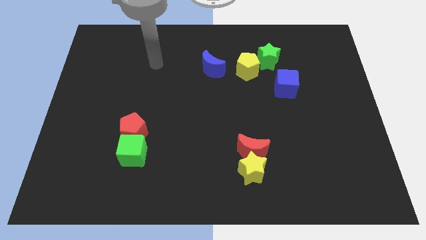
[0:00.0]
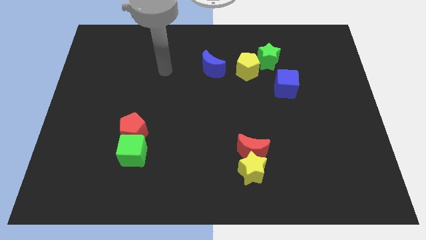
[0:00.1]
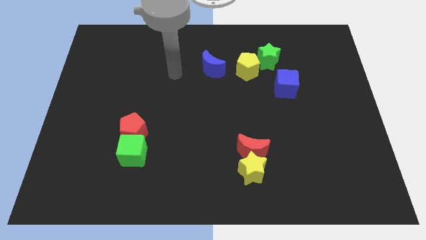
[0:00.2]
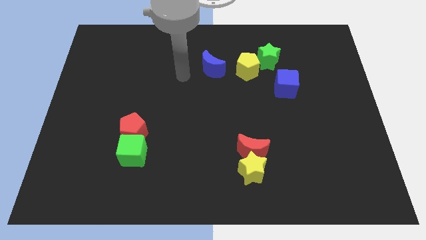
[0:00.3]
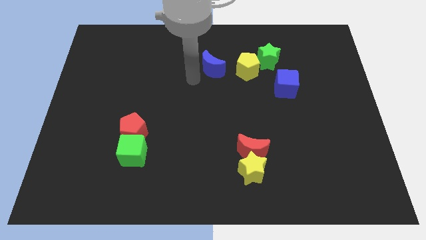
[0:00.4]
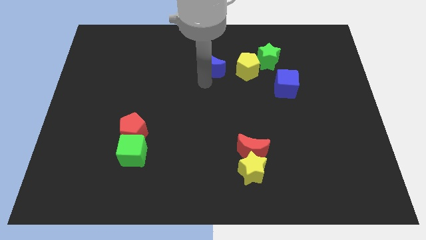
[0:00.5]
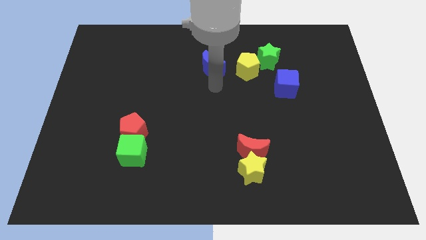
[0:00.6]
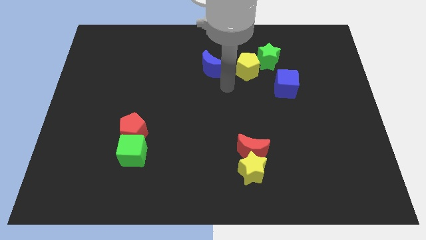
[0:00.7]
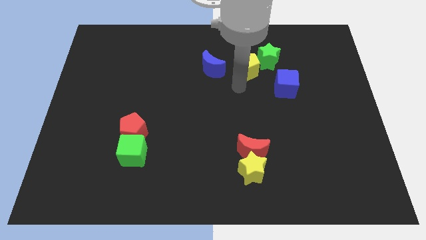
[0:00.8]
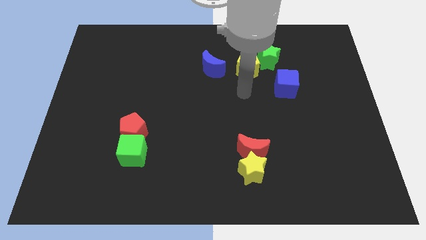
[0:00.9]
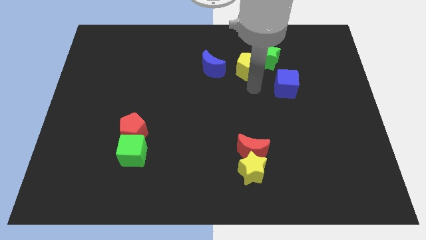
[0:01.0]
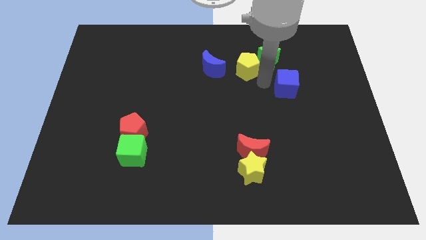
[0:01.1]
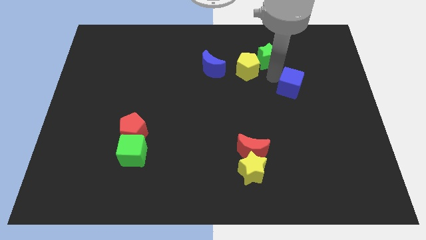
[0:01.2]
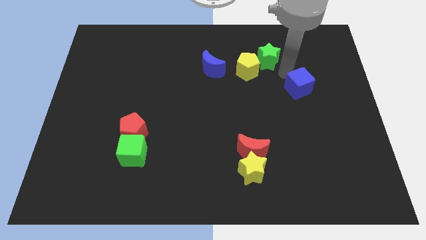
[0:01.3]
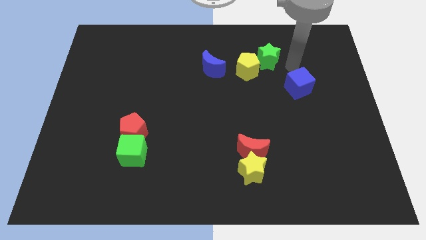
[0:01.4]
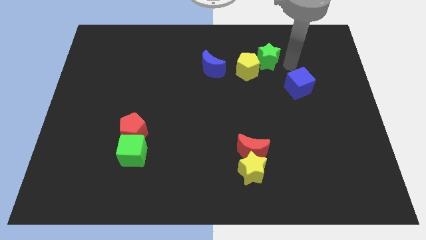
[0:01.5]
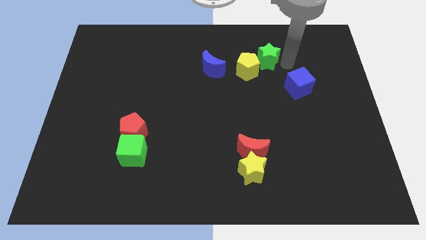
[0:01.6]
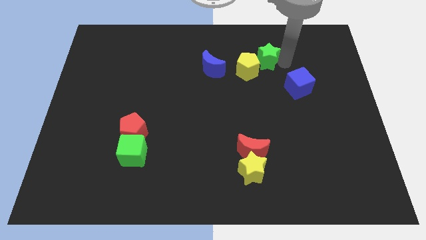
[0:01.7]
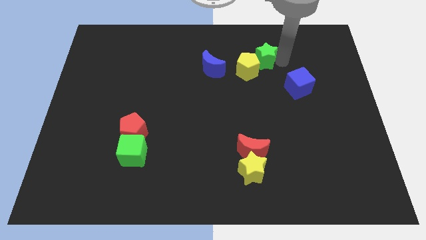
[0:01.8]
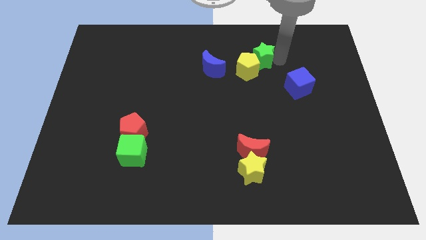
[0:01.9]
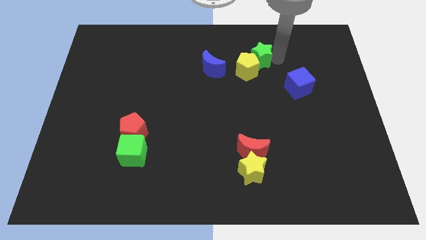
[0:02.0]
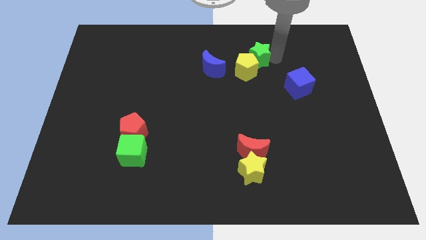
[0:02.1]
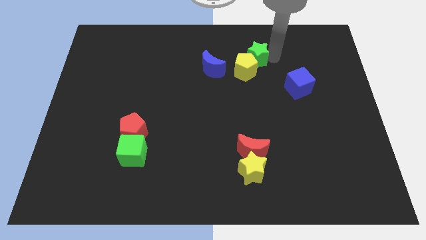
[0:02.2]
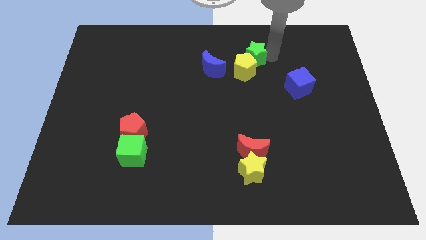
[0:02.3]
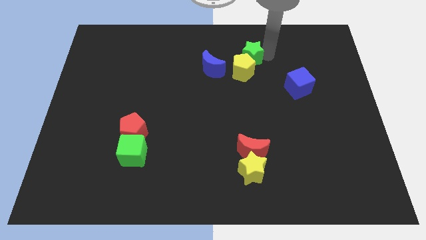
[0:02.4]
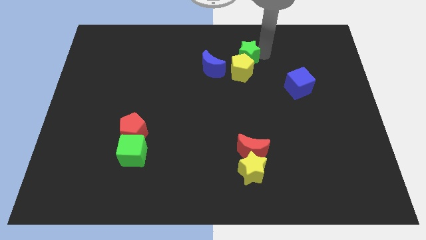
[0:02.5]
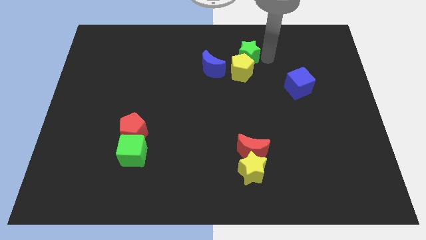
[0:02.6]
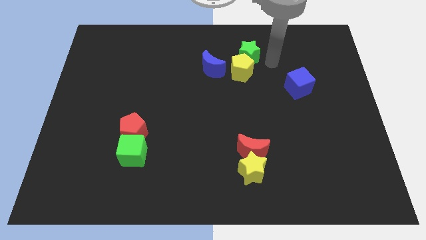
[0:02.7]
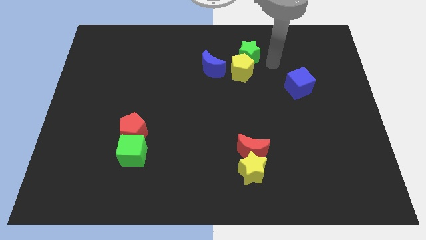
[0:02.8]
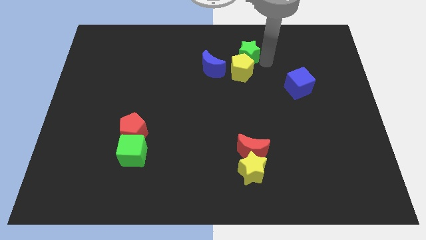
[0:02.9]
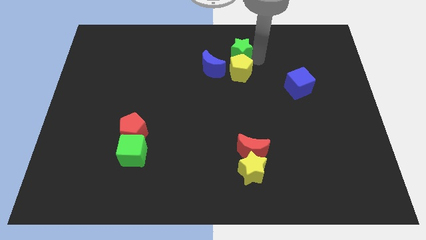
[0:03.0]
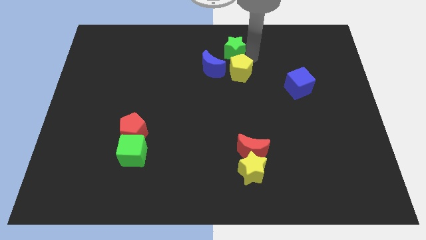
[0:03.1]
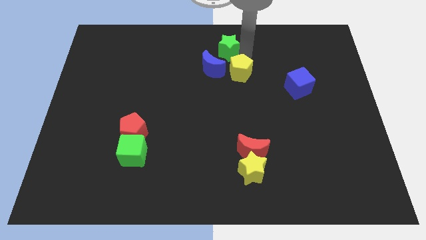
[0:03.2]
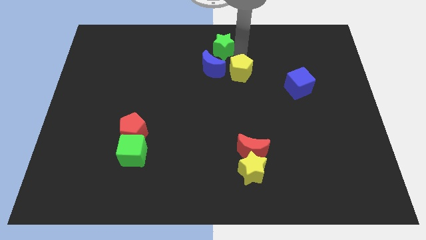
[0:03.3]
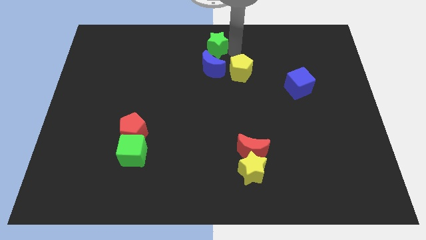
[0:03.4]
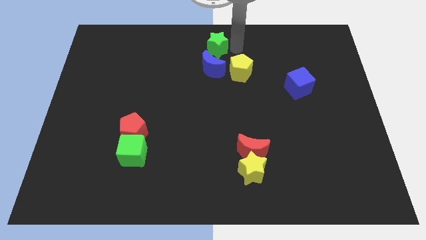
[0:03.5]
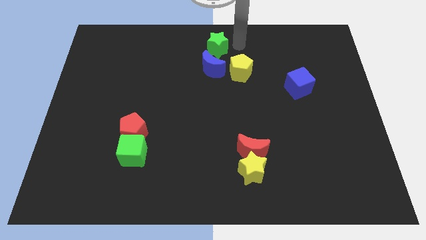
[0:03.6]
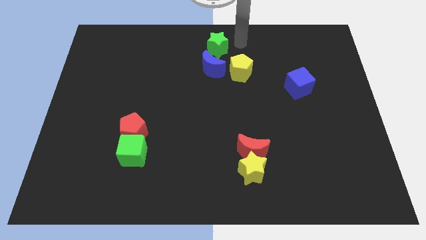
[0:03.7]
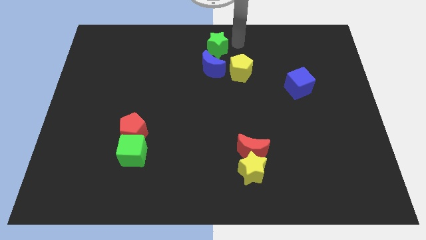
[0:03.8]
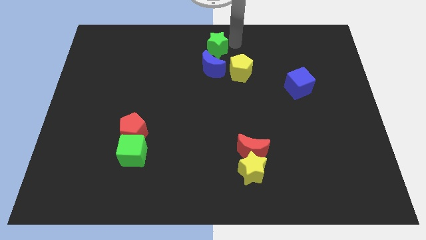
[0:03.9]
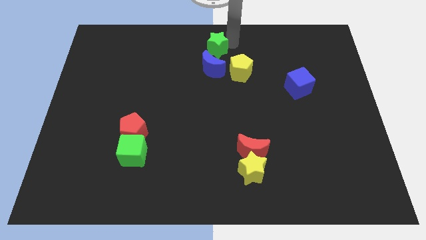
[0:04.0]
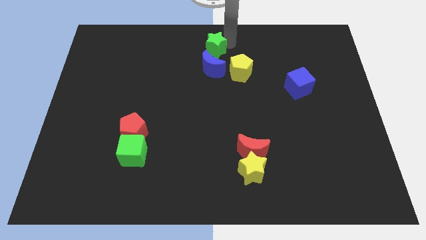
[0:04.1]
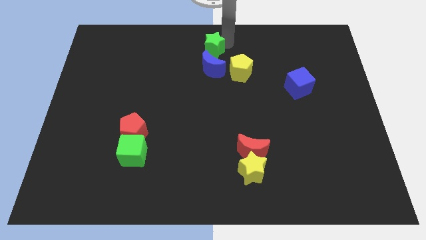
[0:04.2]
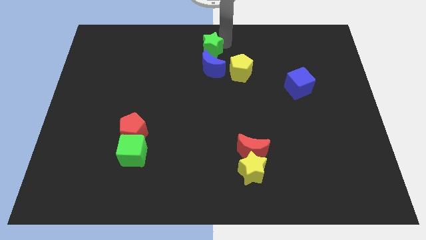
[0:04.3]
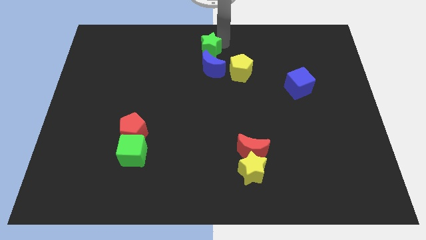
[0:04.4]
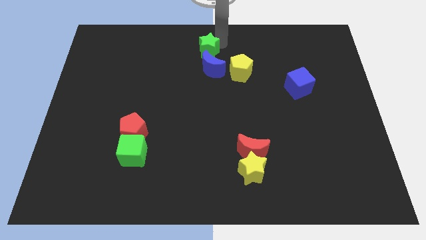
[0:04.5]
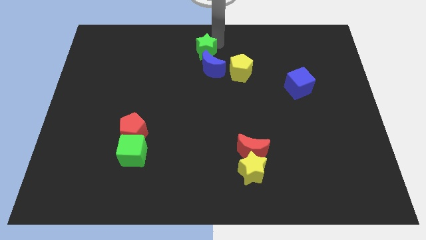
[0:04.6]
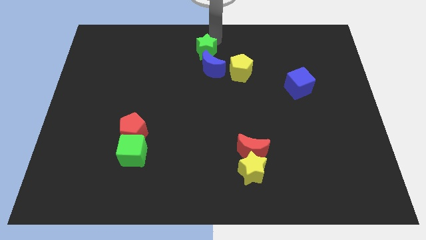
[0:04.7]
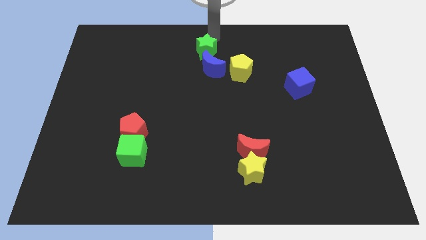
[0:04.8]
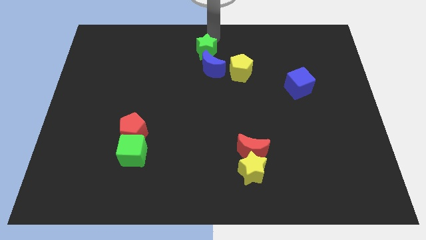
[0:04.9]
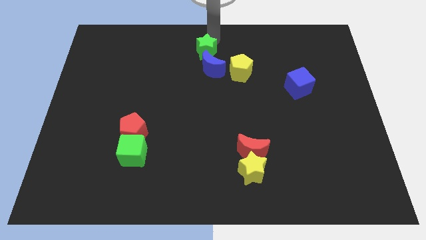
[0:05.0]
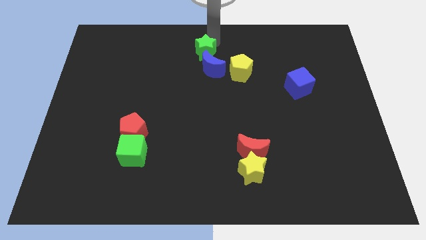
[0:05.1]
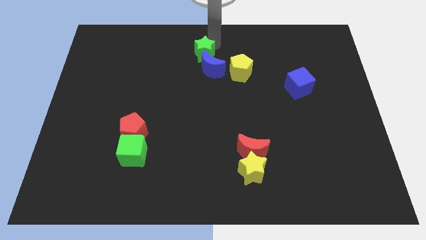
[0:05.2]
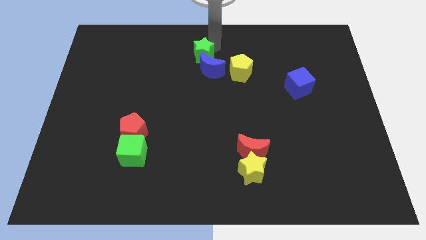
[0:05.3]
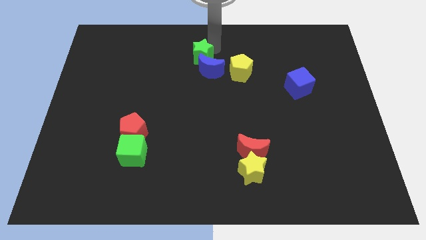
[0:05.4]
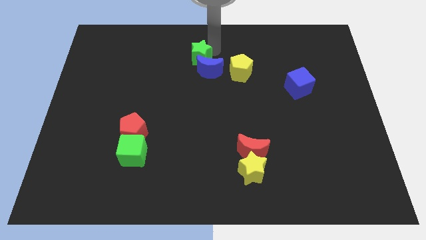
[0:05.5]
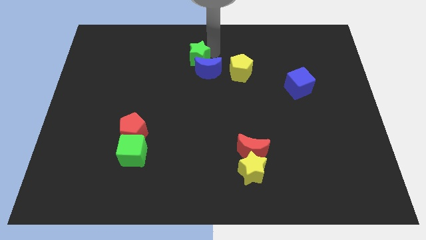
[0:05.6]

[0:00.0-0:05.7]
push the green star to the left side of the yellow pentagon
